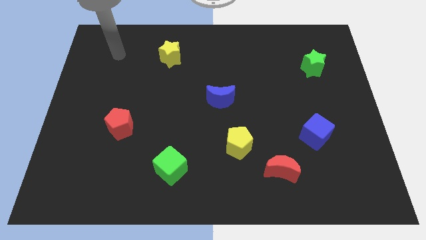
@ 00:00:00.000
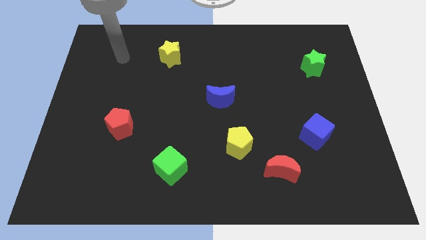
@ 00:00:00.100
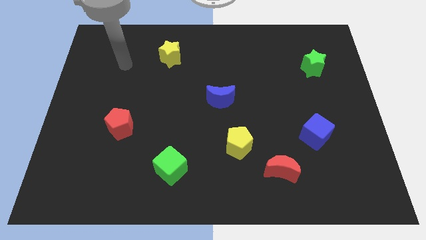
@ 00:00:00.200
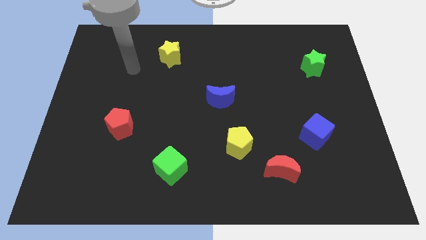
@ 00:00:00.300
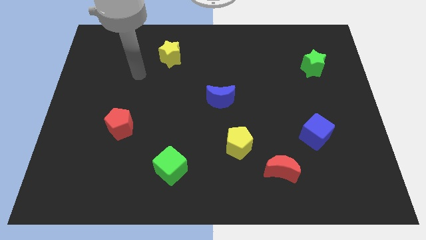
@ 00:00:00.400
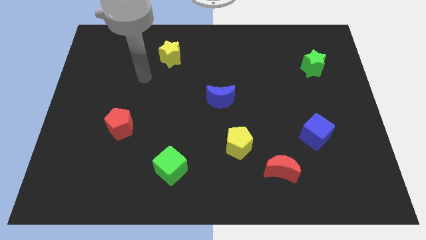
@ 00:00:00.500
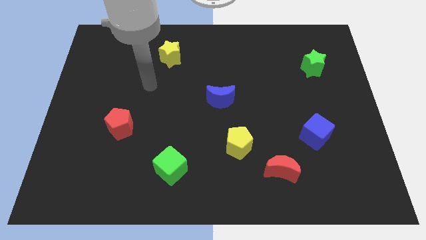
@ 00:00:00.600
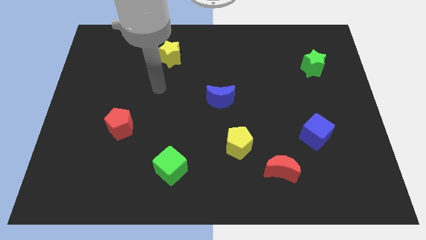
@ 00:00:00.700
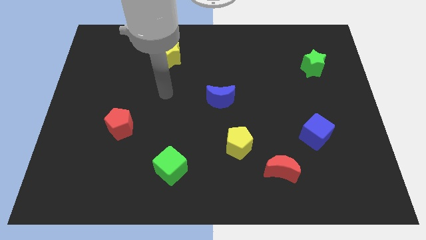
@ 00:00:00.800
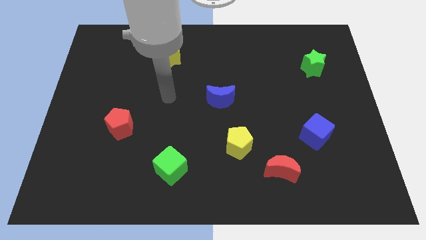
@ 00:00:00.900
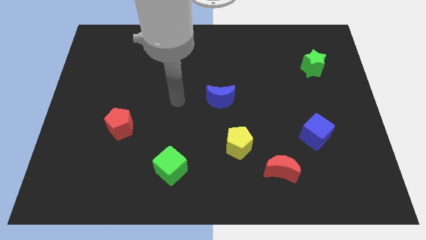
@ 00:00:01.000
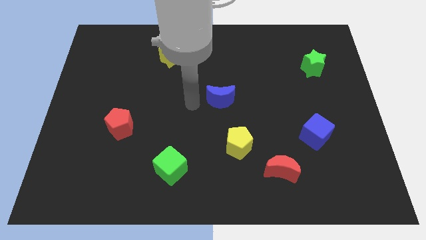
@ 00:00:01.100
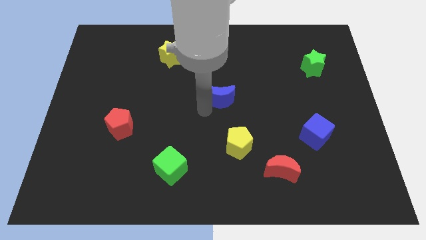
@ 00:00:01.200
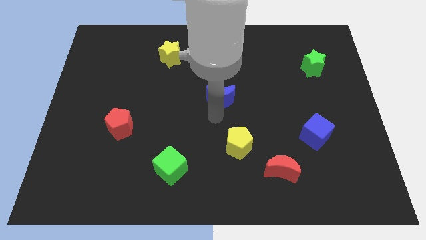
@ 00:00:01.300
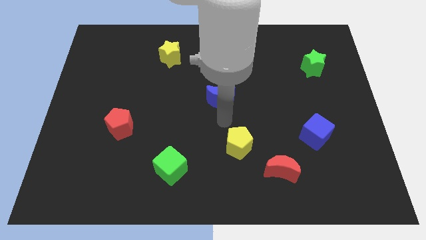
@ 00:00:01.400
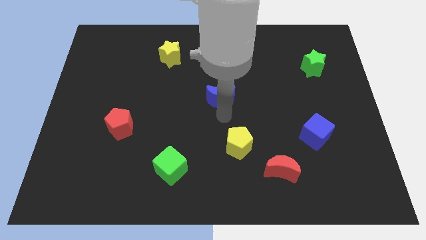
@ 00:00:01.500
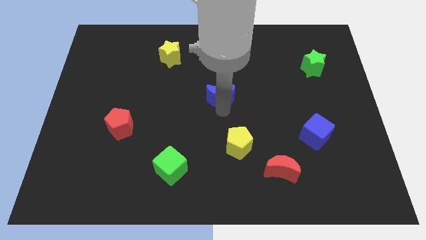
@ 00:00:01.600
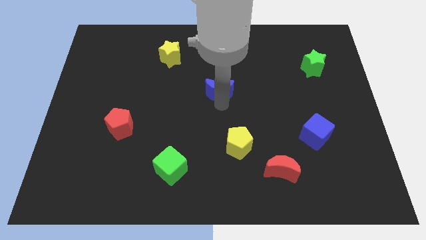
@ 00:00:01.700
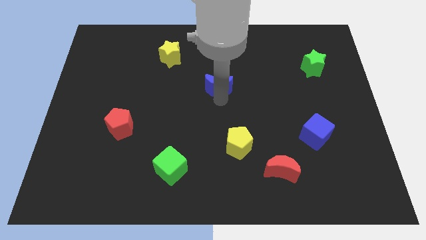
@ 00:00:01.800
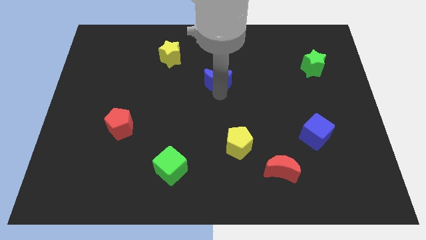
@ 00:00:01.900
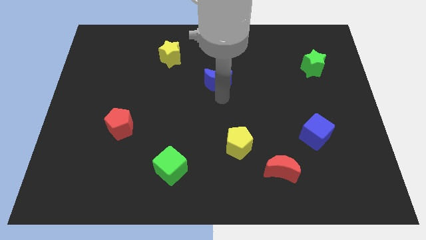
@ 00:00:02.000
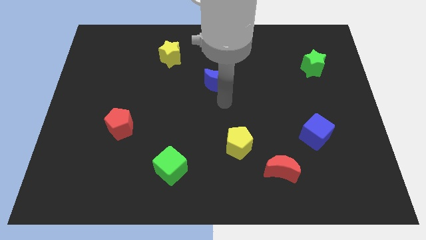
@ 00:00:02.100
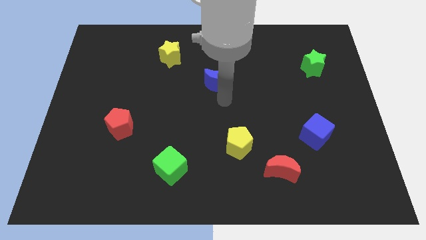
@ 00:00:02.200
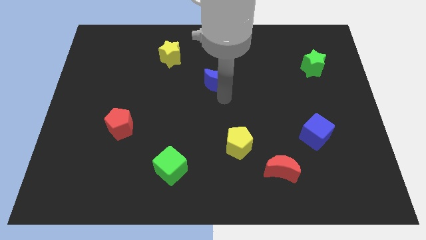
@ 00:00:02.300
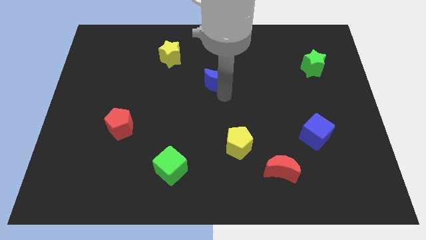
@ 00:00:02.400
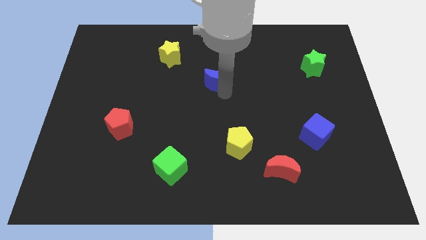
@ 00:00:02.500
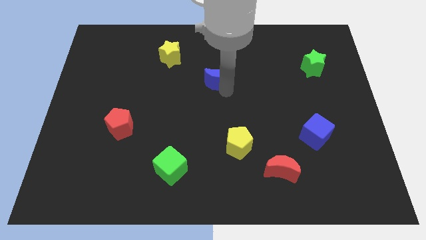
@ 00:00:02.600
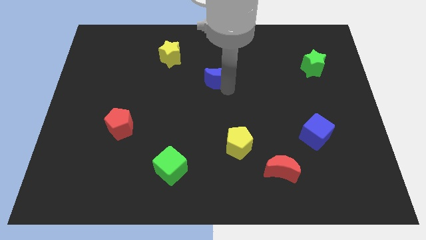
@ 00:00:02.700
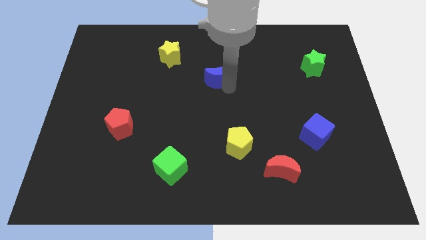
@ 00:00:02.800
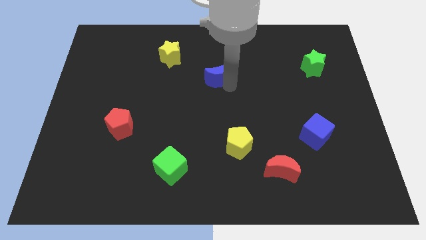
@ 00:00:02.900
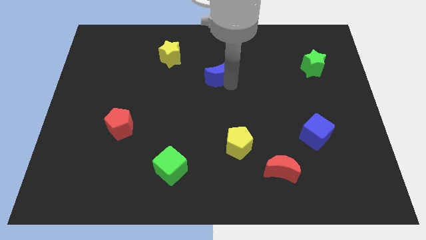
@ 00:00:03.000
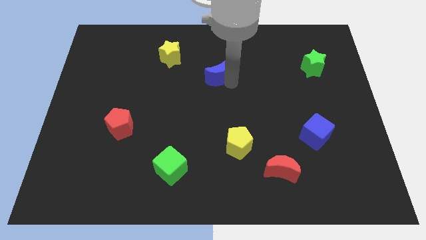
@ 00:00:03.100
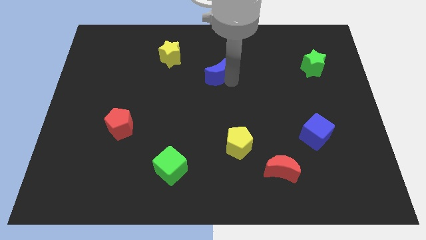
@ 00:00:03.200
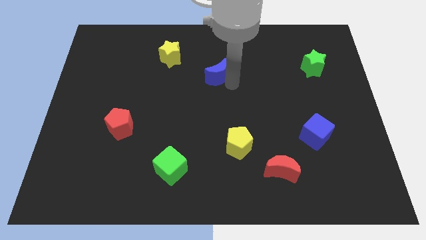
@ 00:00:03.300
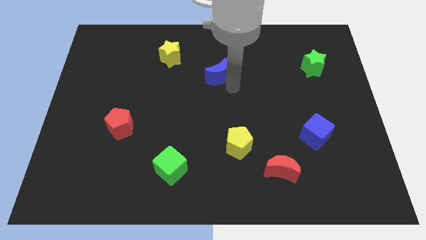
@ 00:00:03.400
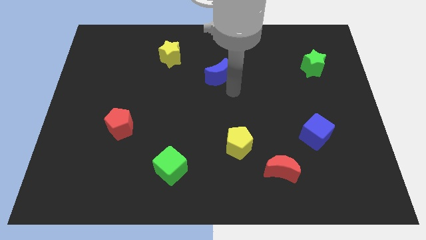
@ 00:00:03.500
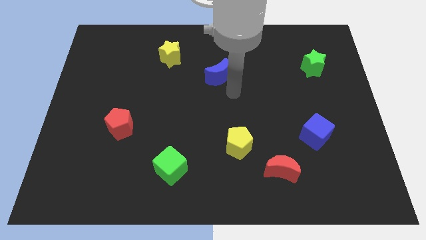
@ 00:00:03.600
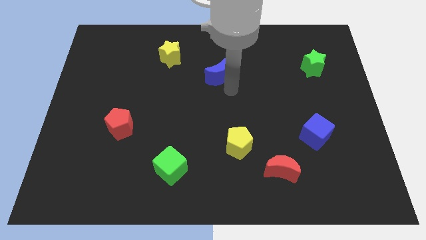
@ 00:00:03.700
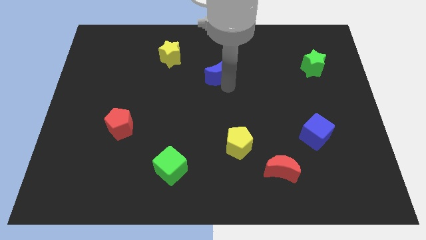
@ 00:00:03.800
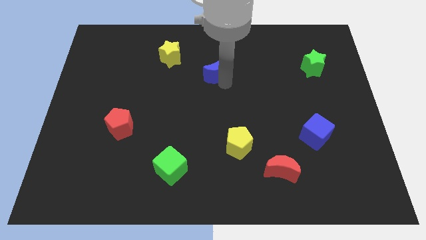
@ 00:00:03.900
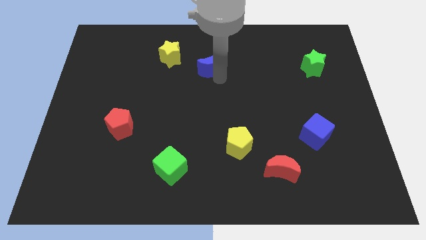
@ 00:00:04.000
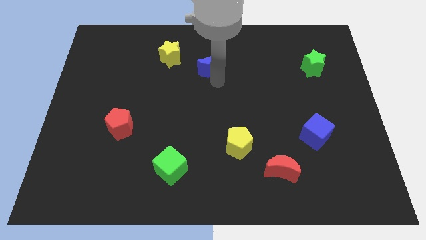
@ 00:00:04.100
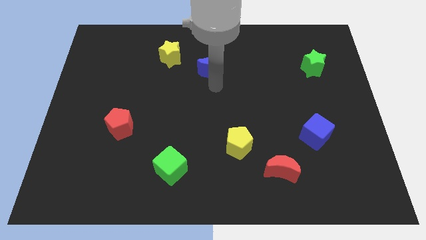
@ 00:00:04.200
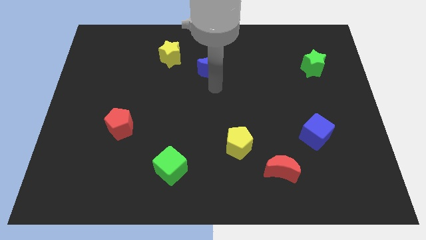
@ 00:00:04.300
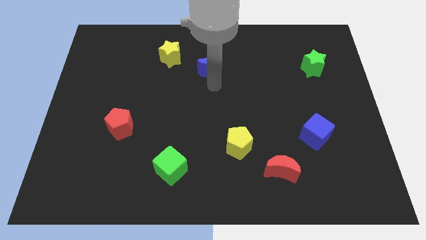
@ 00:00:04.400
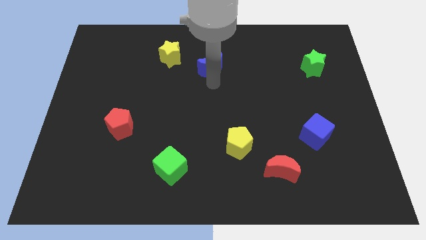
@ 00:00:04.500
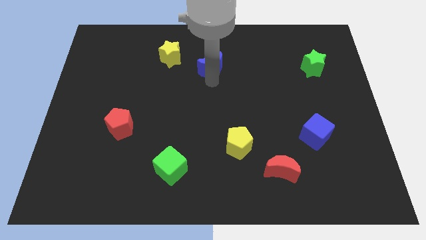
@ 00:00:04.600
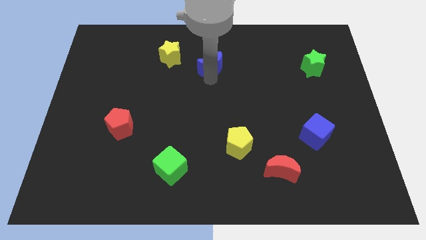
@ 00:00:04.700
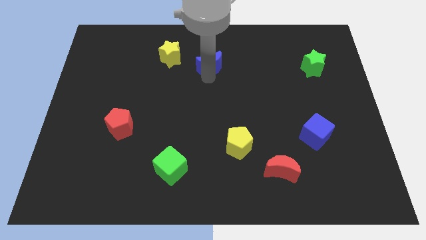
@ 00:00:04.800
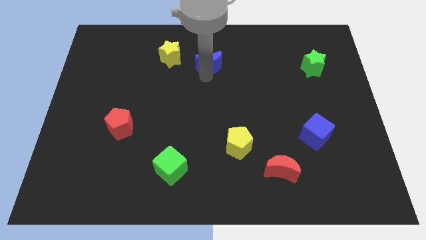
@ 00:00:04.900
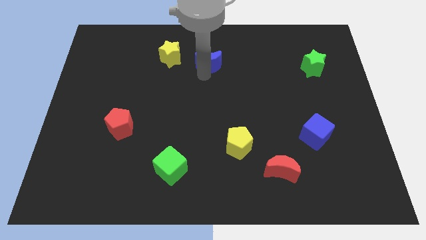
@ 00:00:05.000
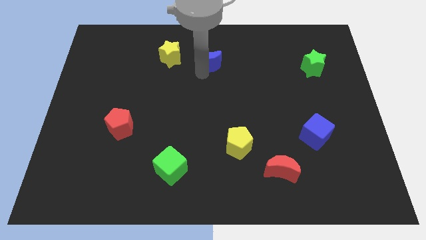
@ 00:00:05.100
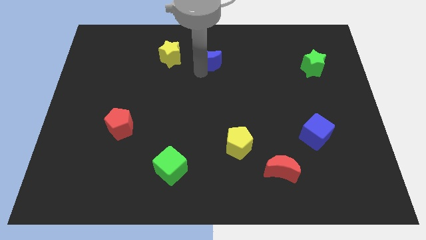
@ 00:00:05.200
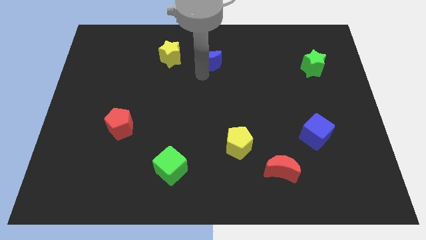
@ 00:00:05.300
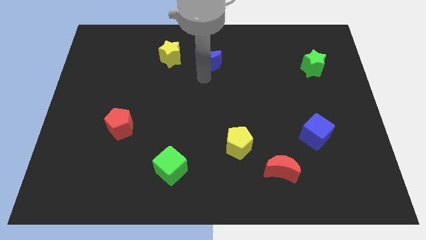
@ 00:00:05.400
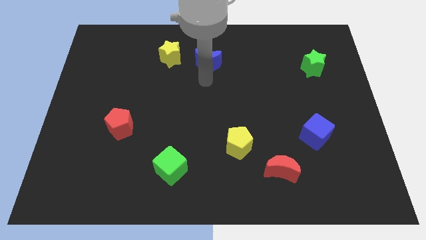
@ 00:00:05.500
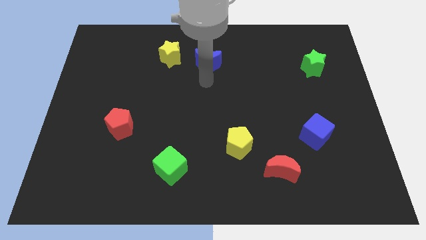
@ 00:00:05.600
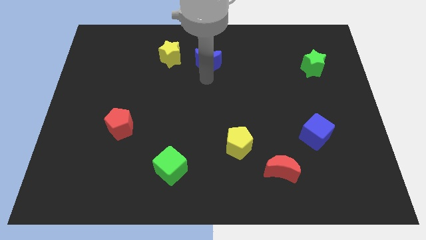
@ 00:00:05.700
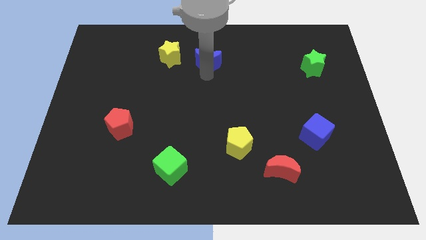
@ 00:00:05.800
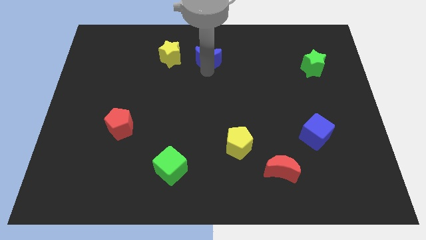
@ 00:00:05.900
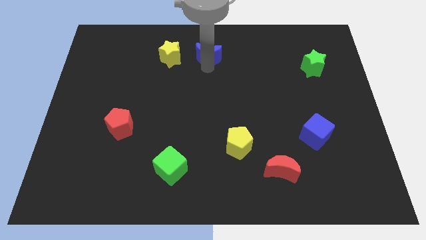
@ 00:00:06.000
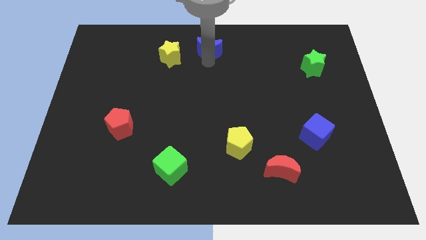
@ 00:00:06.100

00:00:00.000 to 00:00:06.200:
move the blue moon to the towards your base
